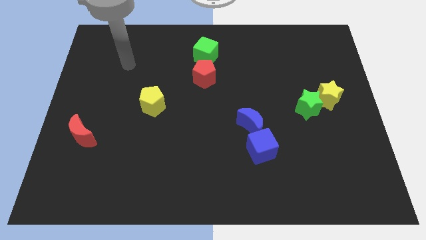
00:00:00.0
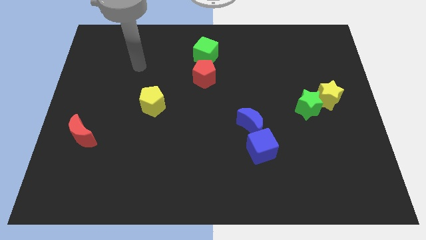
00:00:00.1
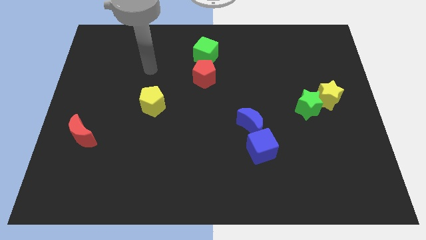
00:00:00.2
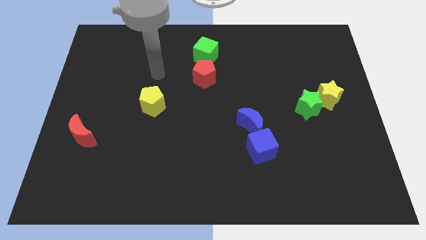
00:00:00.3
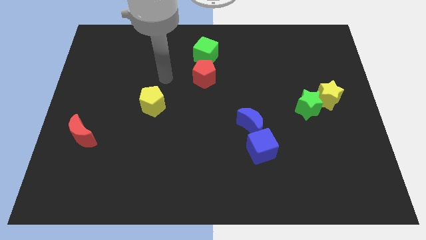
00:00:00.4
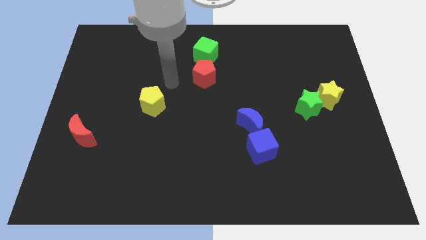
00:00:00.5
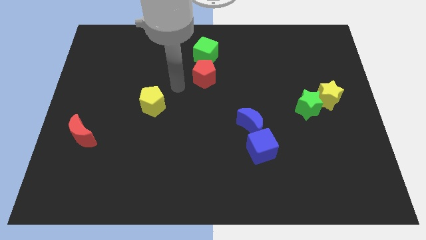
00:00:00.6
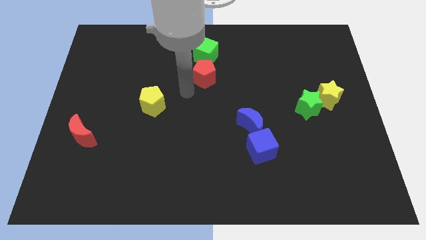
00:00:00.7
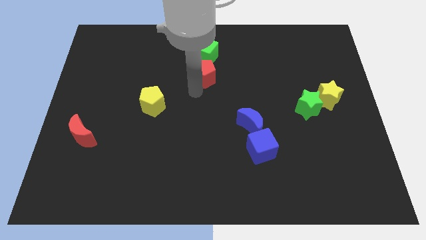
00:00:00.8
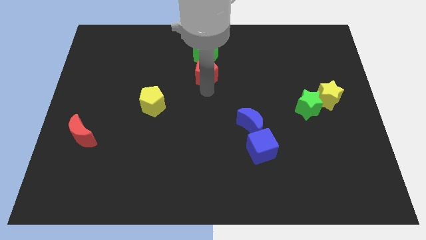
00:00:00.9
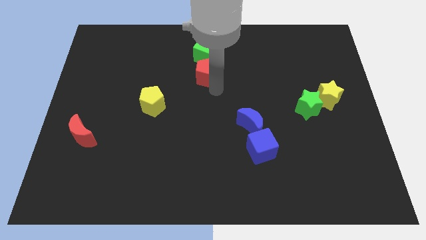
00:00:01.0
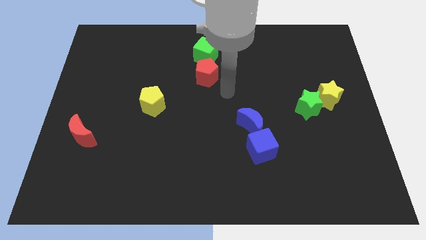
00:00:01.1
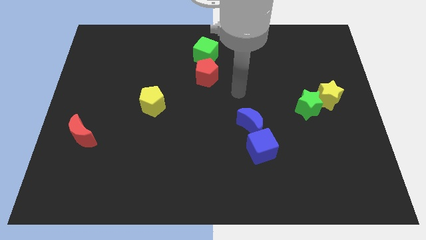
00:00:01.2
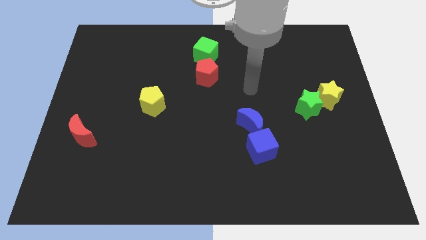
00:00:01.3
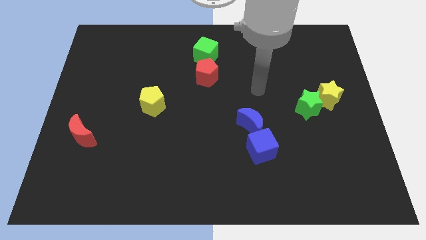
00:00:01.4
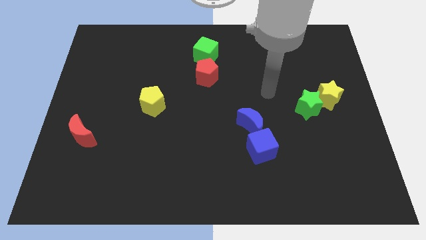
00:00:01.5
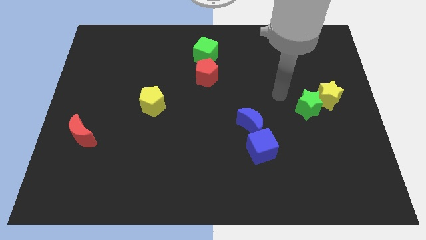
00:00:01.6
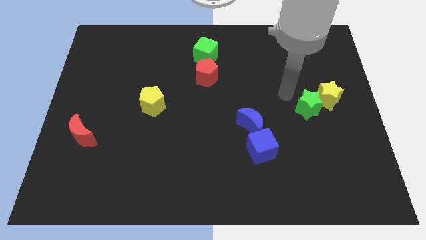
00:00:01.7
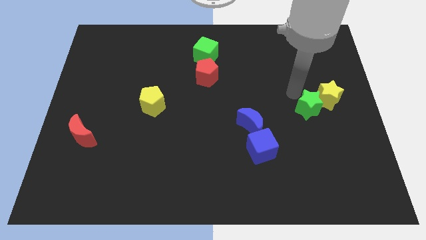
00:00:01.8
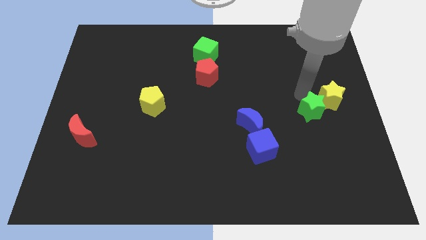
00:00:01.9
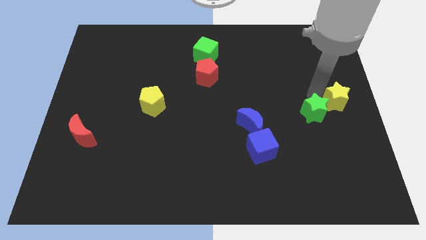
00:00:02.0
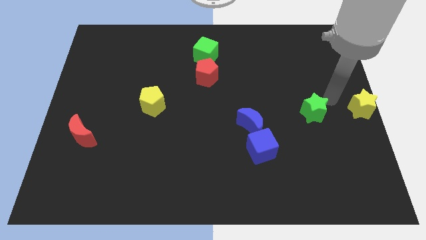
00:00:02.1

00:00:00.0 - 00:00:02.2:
separate the green star from the yellow star

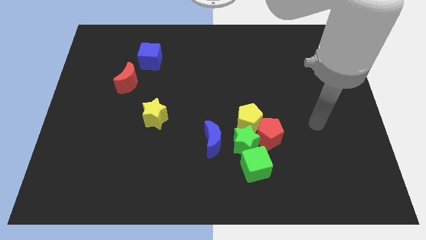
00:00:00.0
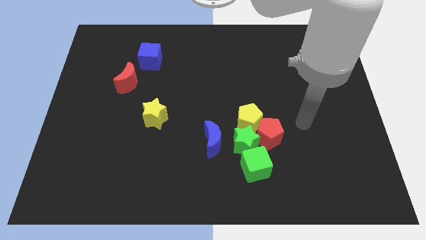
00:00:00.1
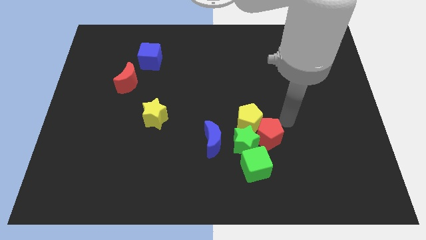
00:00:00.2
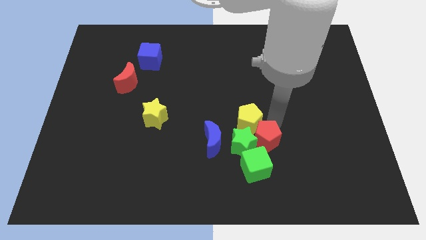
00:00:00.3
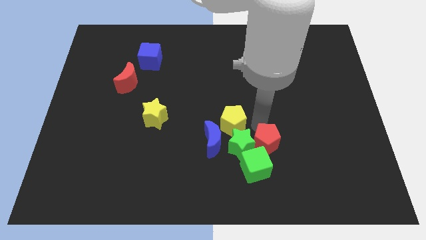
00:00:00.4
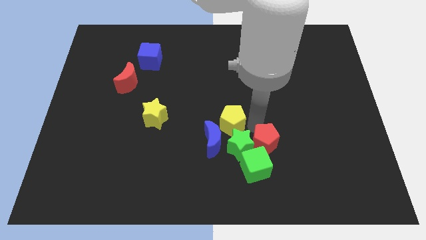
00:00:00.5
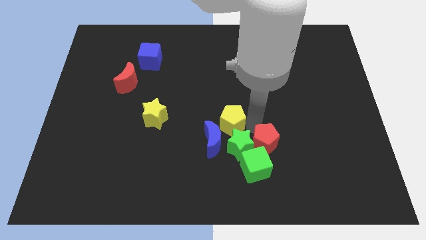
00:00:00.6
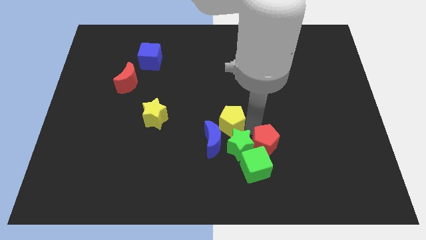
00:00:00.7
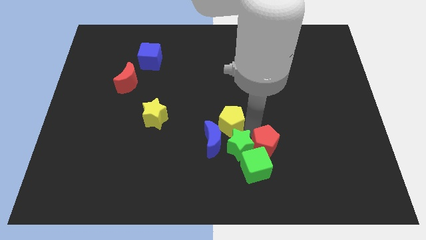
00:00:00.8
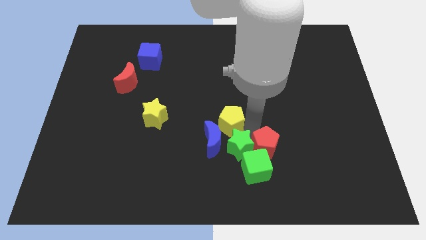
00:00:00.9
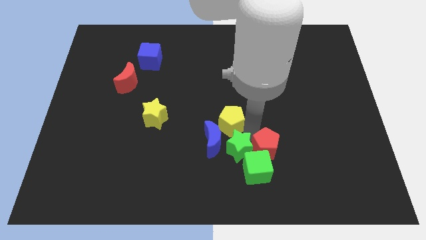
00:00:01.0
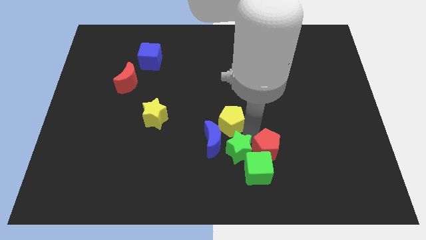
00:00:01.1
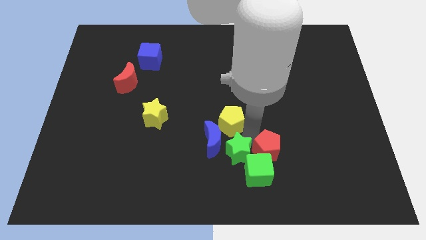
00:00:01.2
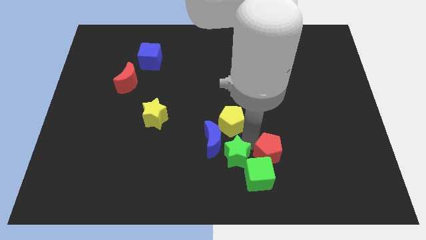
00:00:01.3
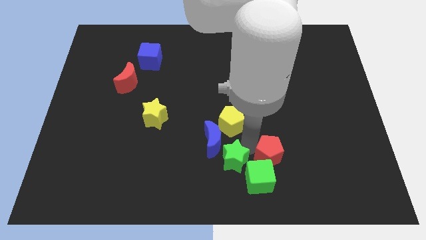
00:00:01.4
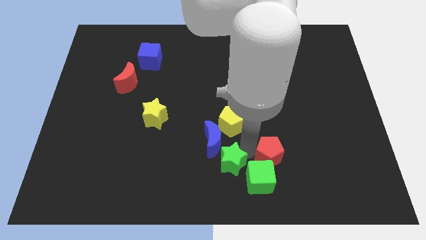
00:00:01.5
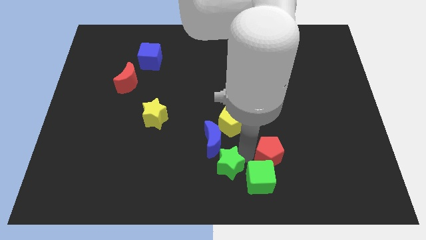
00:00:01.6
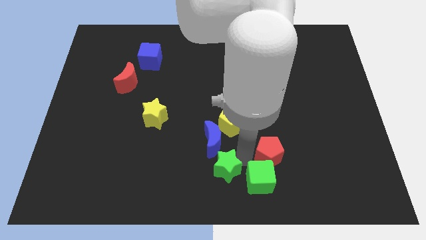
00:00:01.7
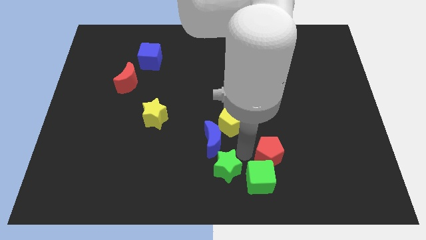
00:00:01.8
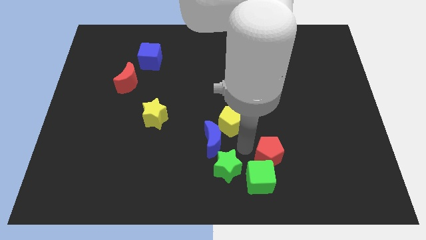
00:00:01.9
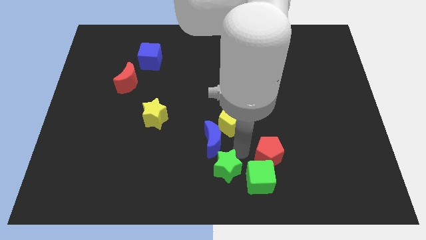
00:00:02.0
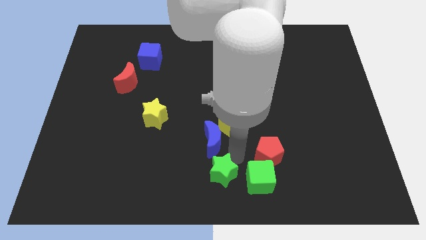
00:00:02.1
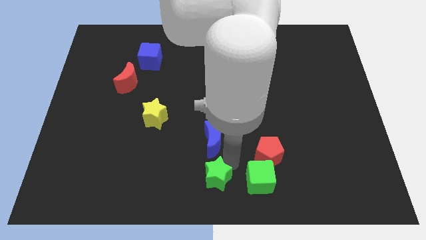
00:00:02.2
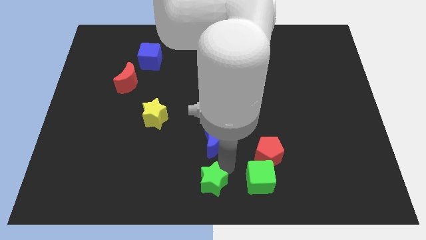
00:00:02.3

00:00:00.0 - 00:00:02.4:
pull the green star apart from the group of blocks

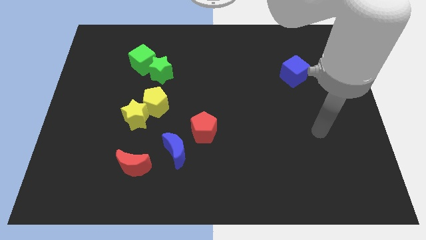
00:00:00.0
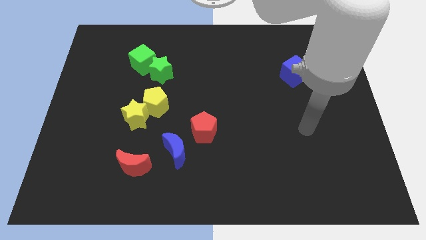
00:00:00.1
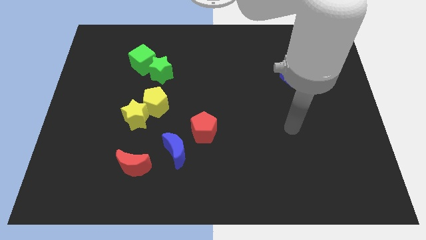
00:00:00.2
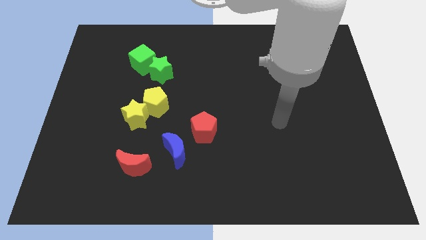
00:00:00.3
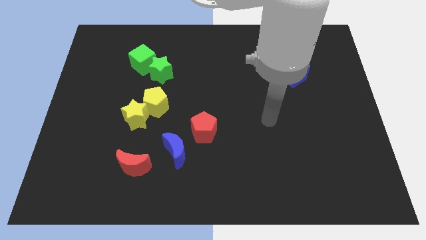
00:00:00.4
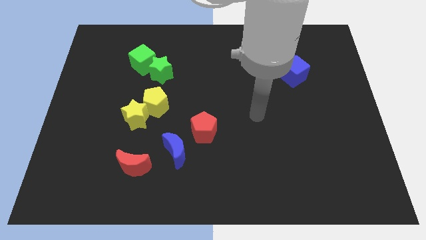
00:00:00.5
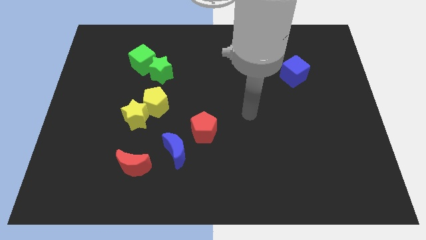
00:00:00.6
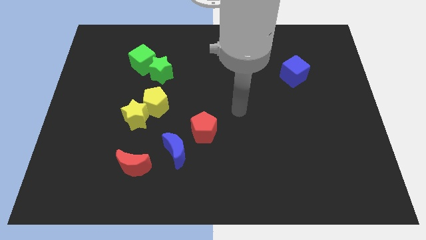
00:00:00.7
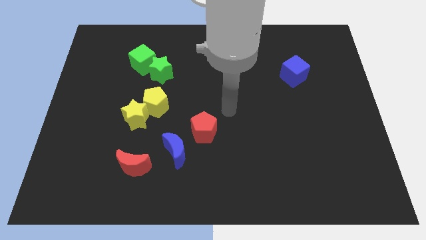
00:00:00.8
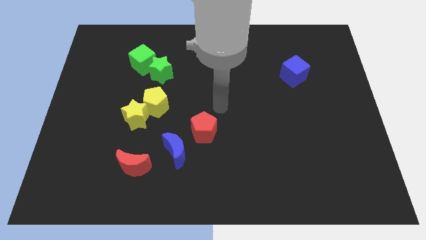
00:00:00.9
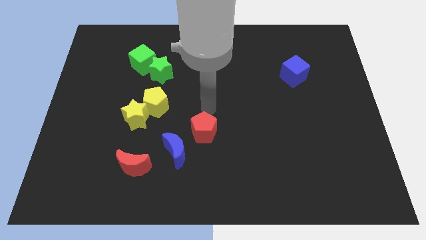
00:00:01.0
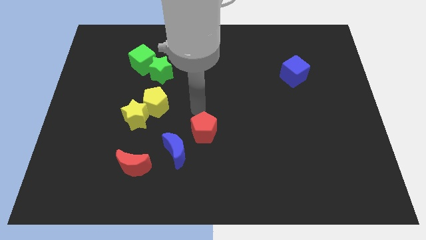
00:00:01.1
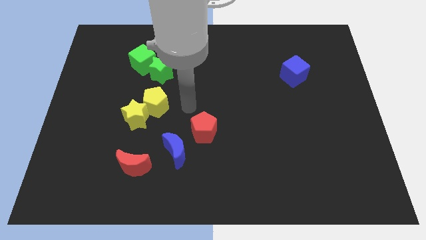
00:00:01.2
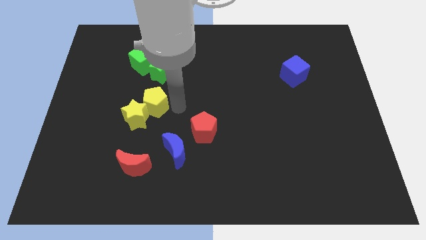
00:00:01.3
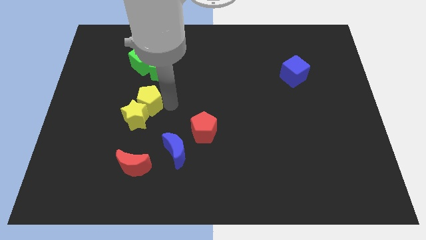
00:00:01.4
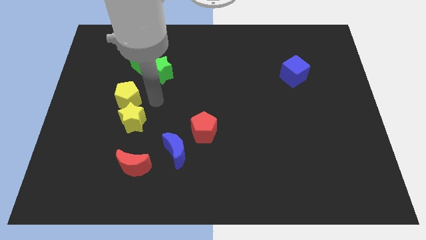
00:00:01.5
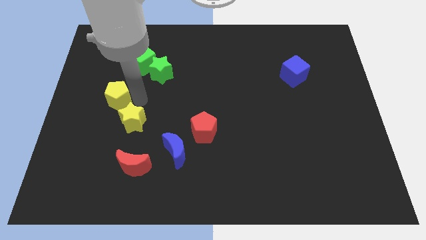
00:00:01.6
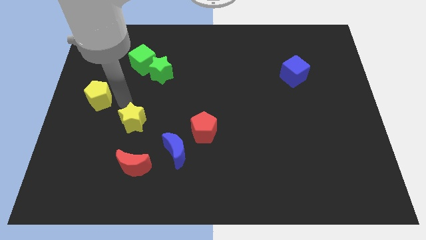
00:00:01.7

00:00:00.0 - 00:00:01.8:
move the yellow star away from the yellow pentagon

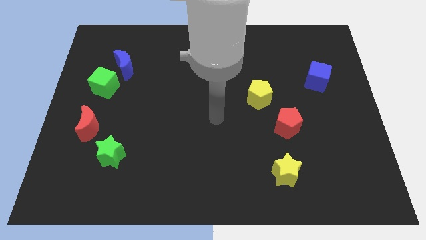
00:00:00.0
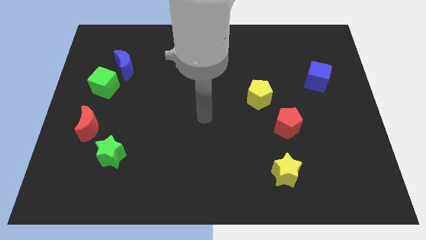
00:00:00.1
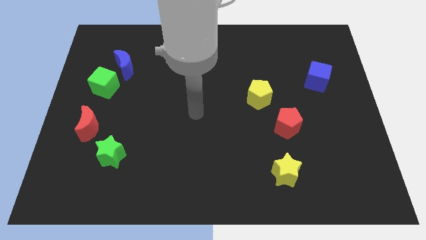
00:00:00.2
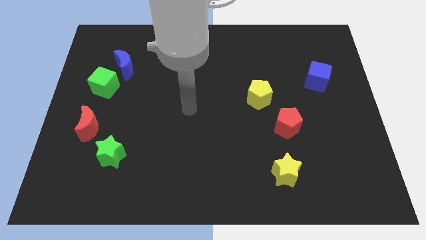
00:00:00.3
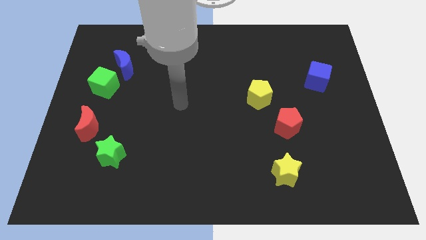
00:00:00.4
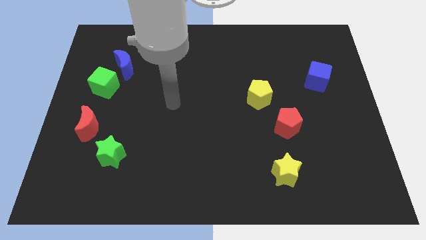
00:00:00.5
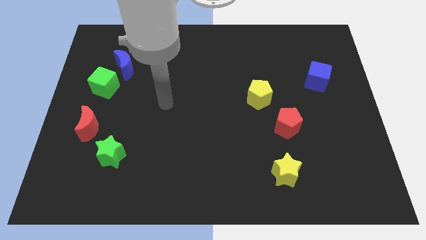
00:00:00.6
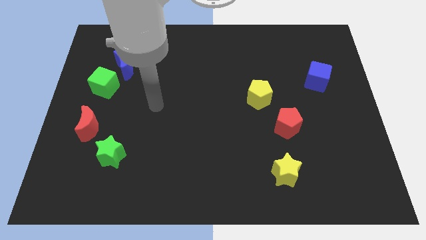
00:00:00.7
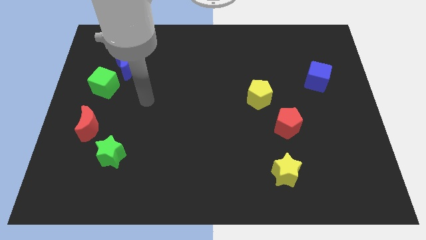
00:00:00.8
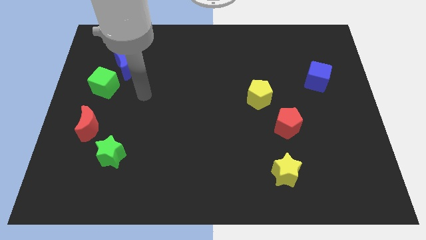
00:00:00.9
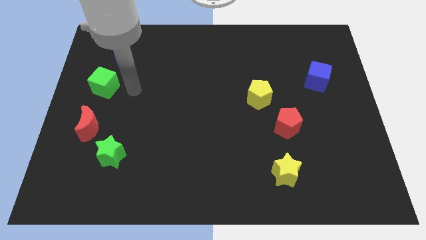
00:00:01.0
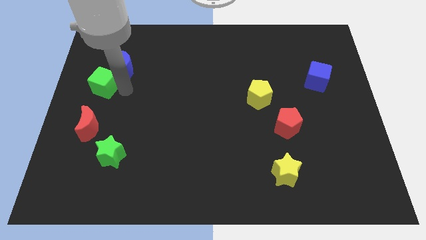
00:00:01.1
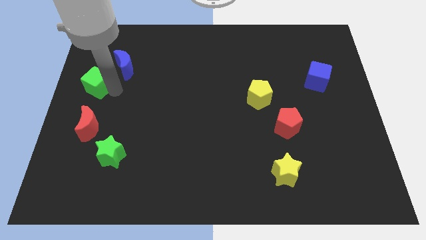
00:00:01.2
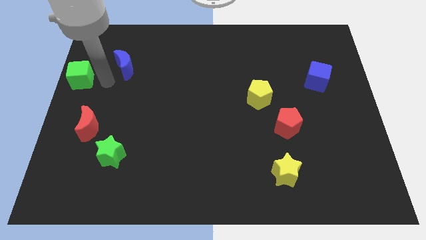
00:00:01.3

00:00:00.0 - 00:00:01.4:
separate the blue moon from the green cube

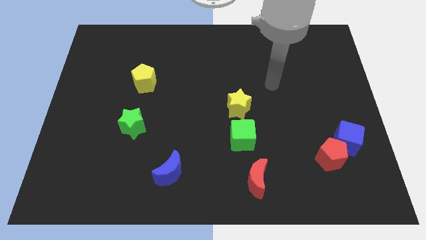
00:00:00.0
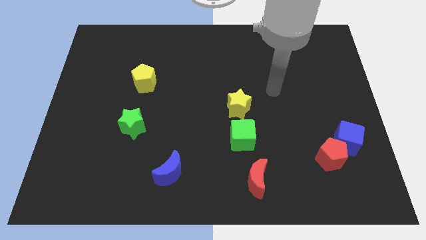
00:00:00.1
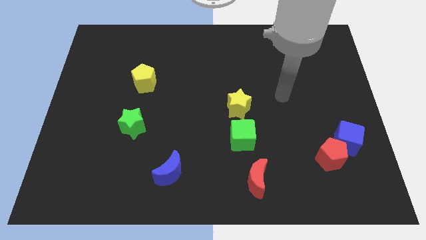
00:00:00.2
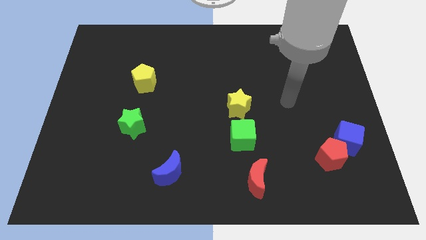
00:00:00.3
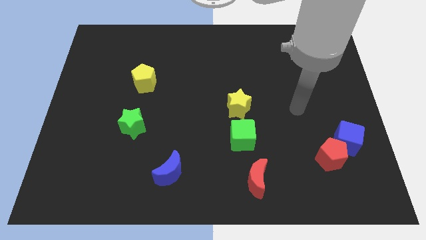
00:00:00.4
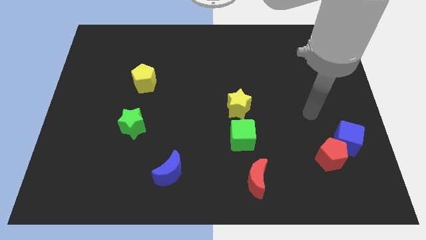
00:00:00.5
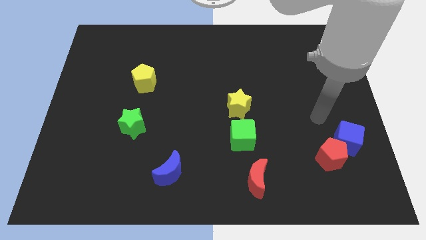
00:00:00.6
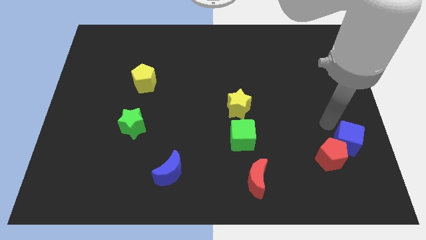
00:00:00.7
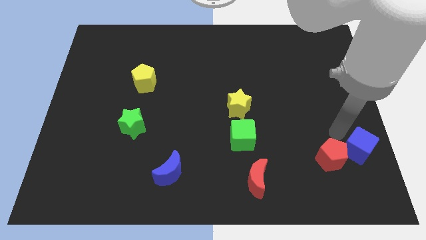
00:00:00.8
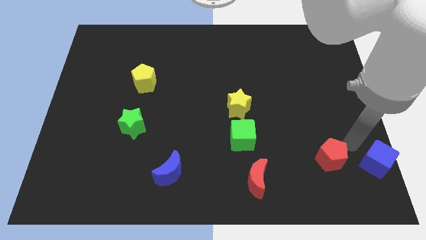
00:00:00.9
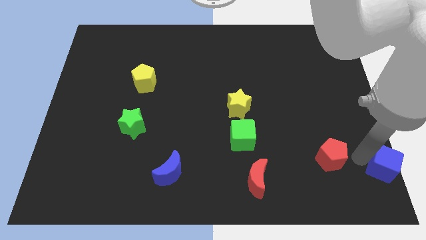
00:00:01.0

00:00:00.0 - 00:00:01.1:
move the red pentagon away from the blue cube

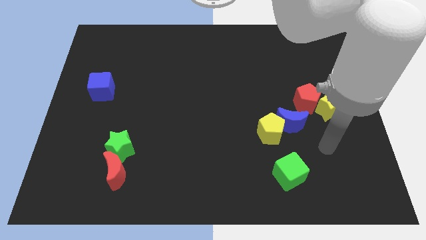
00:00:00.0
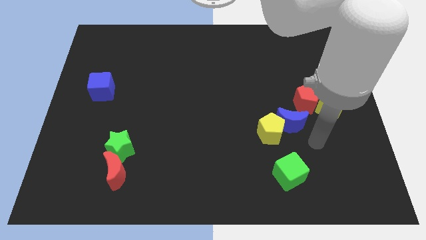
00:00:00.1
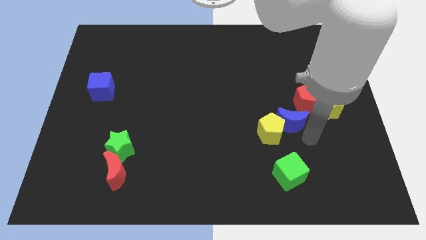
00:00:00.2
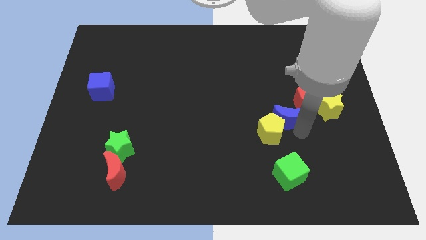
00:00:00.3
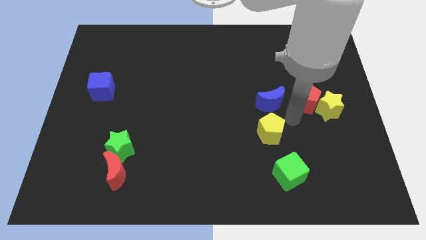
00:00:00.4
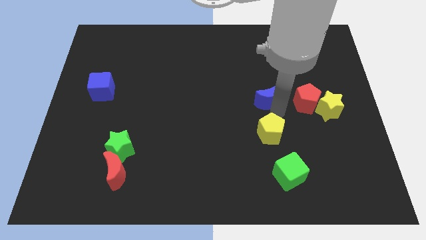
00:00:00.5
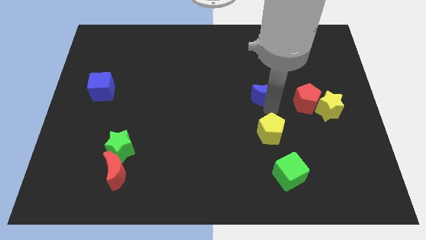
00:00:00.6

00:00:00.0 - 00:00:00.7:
separate the yellow pentagon from the blue moon
